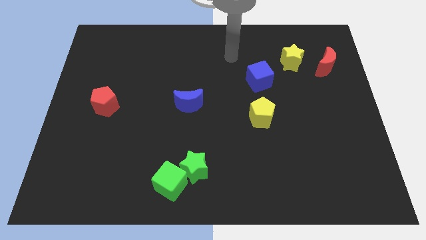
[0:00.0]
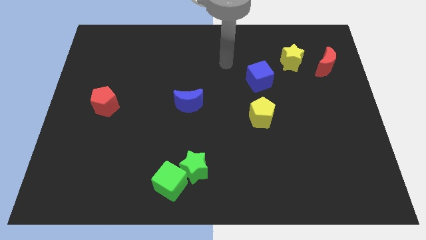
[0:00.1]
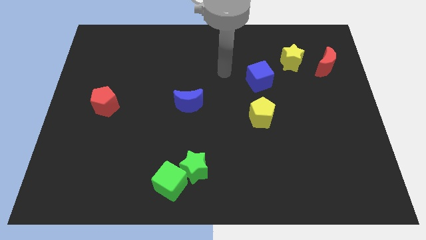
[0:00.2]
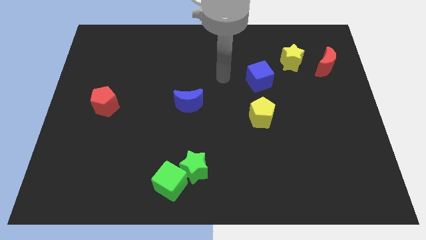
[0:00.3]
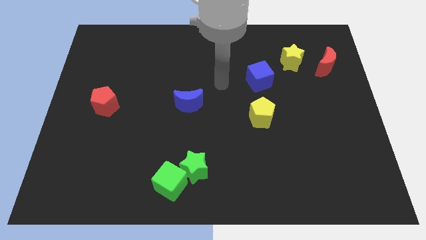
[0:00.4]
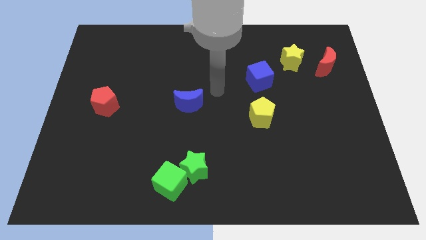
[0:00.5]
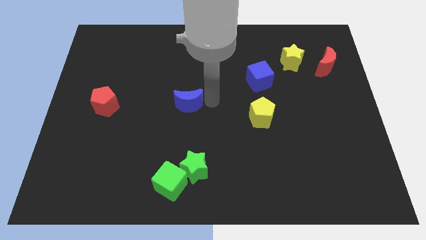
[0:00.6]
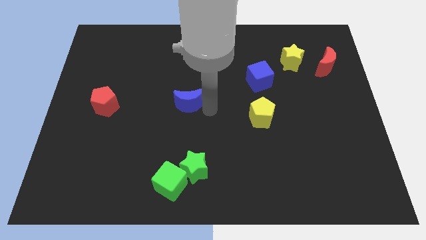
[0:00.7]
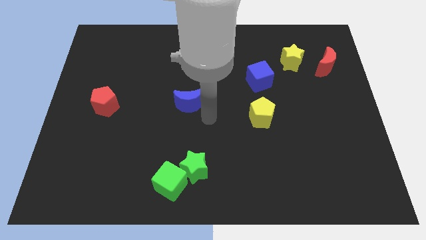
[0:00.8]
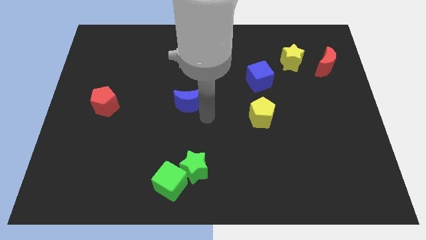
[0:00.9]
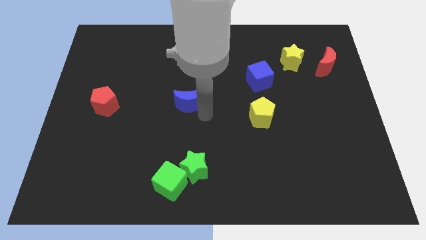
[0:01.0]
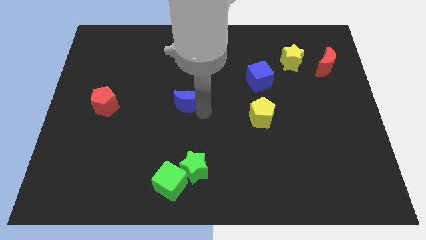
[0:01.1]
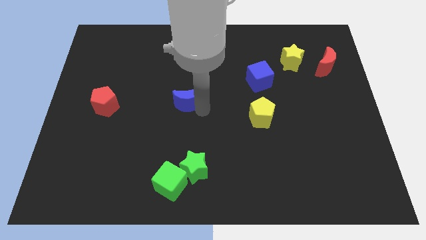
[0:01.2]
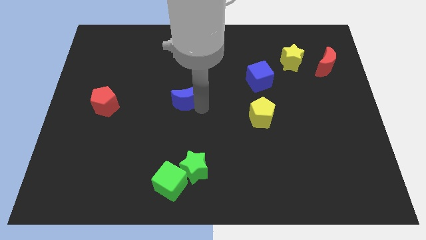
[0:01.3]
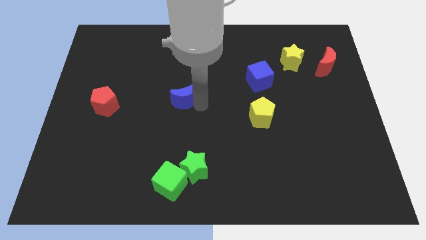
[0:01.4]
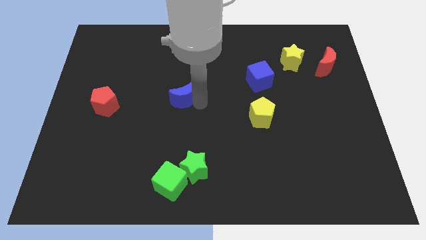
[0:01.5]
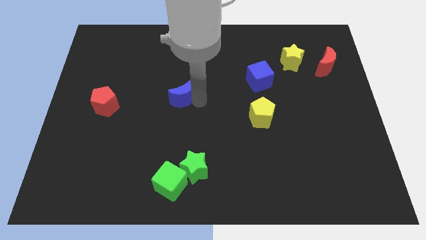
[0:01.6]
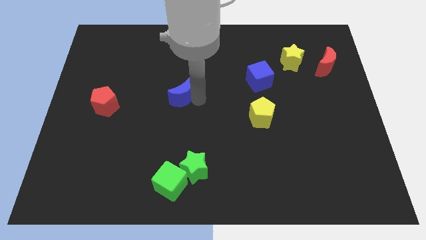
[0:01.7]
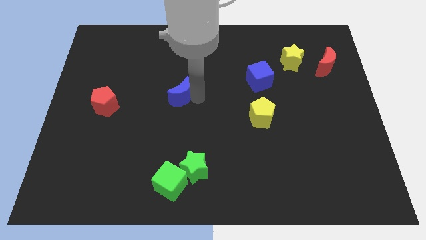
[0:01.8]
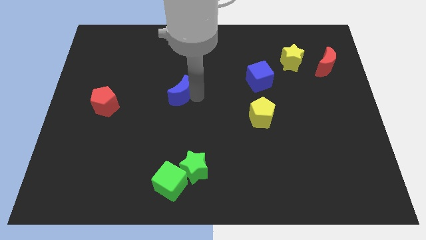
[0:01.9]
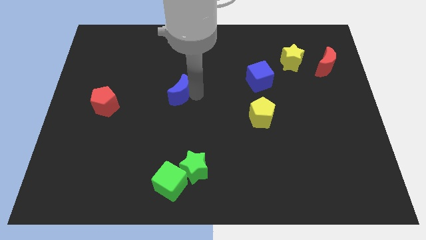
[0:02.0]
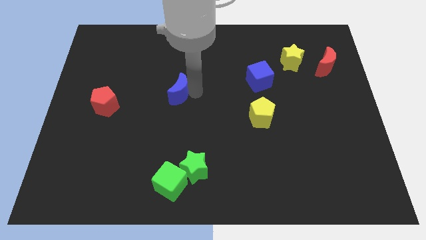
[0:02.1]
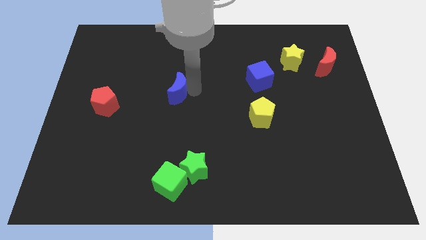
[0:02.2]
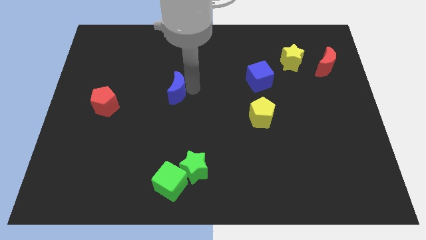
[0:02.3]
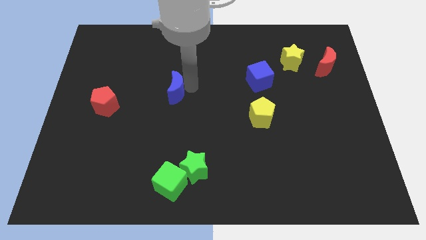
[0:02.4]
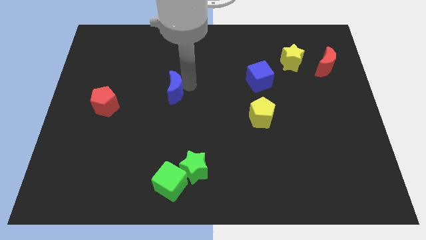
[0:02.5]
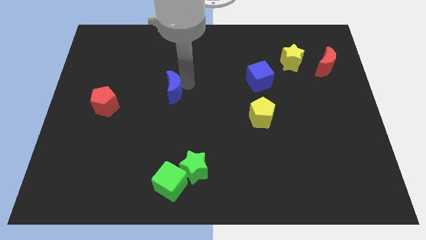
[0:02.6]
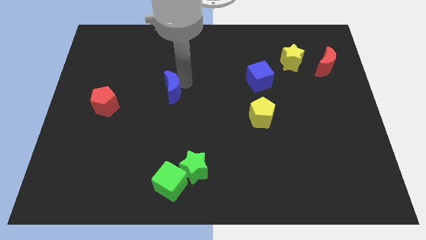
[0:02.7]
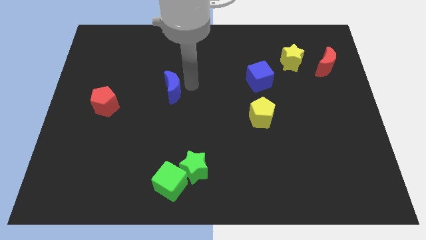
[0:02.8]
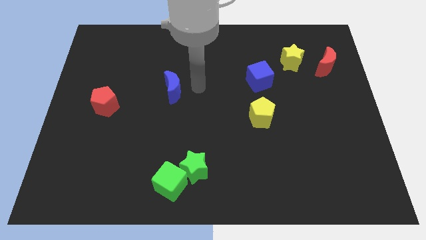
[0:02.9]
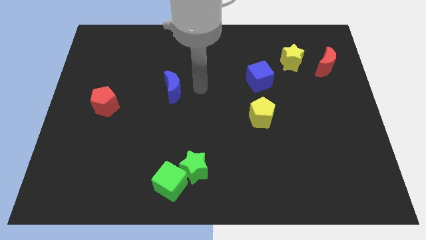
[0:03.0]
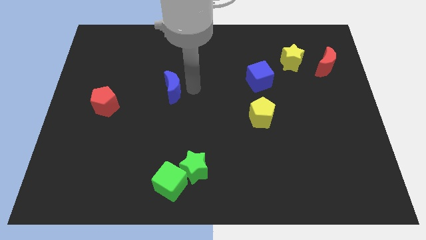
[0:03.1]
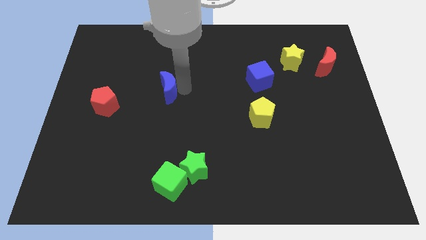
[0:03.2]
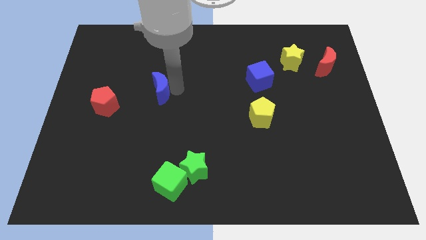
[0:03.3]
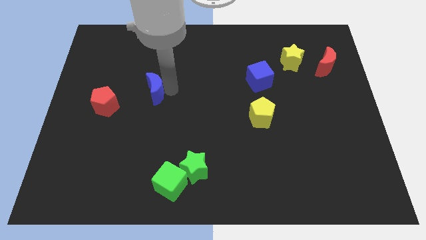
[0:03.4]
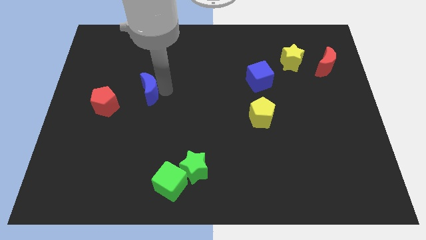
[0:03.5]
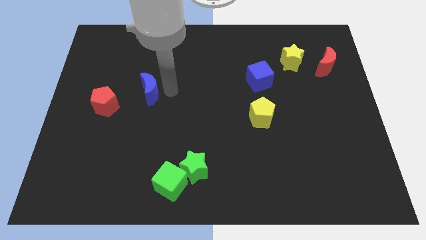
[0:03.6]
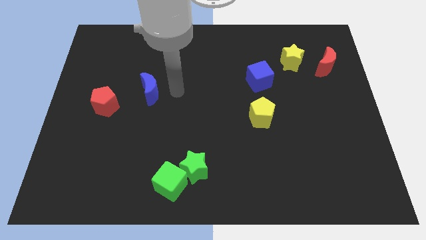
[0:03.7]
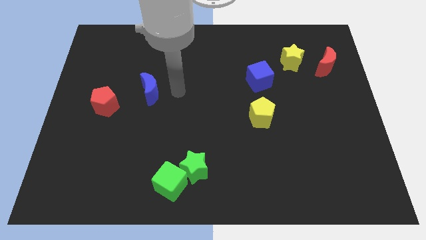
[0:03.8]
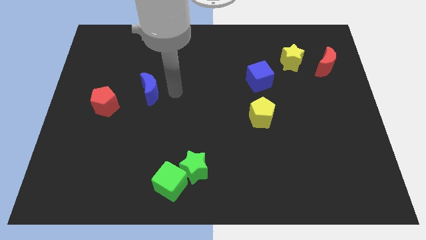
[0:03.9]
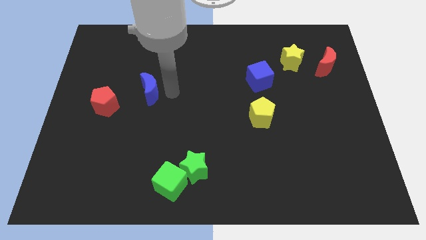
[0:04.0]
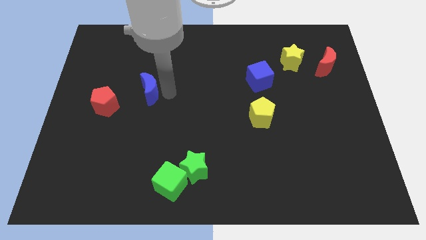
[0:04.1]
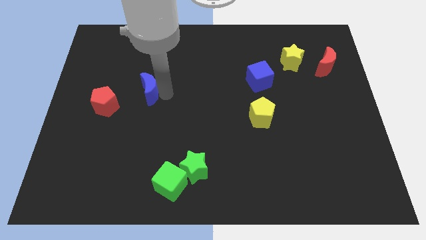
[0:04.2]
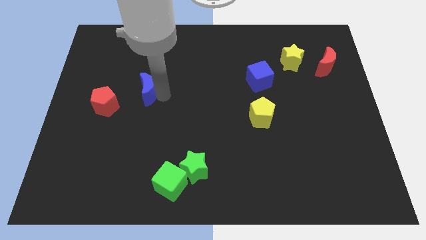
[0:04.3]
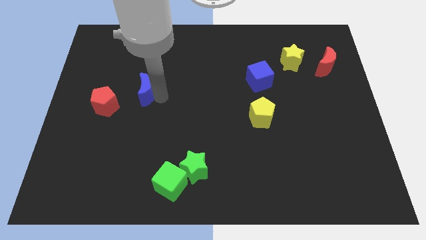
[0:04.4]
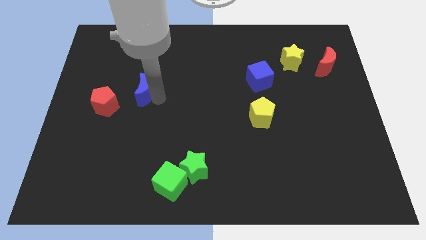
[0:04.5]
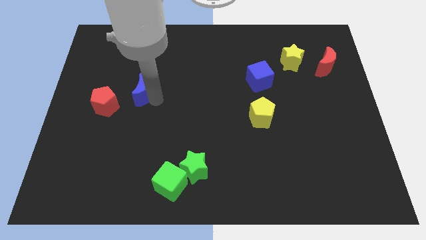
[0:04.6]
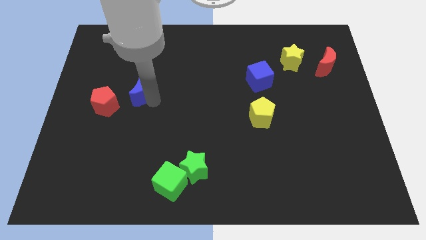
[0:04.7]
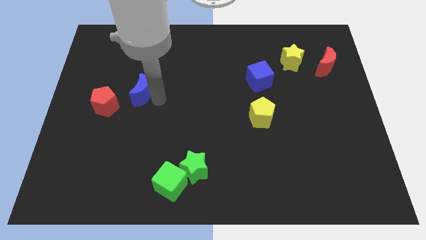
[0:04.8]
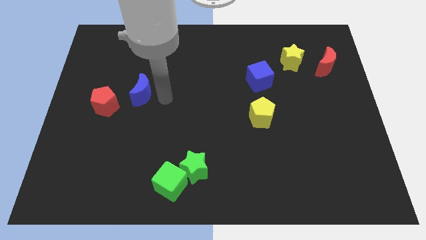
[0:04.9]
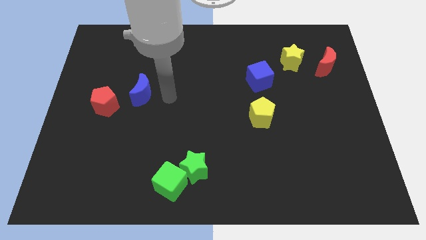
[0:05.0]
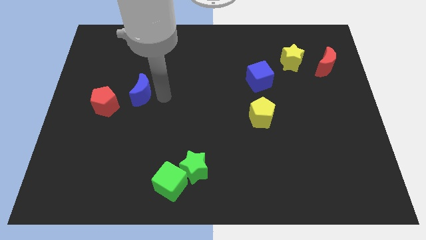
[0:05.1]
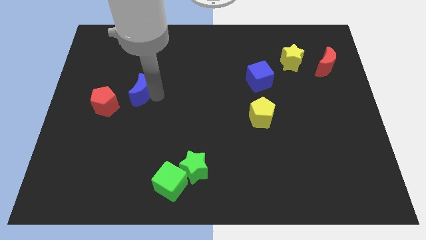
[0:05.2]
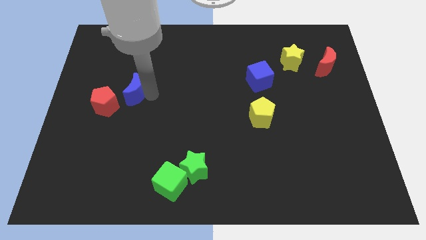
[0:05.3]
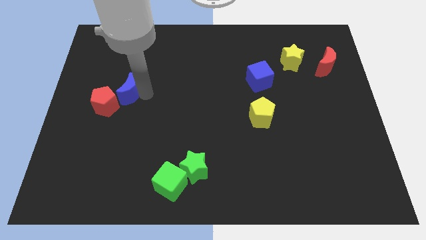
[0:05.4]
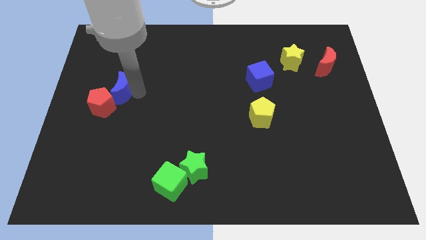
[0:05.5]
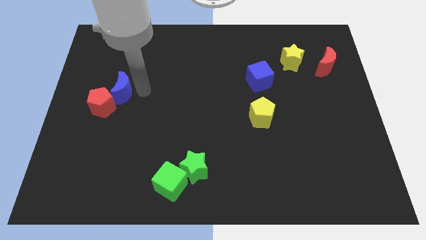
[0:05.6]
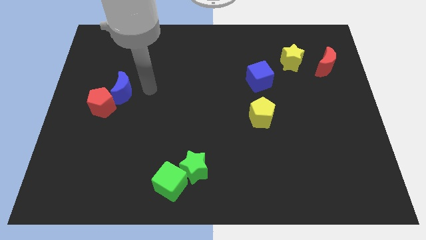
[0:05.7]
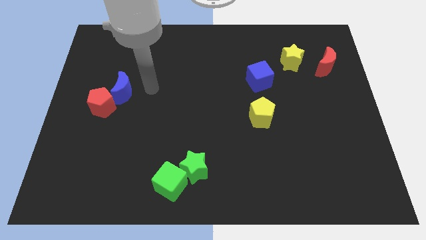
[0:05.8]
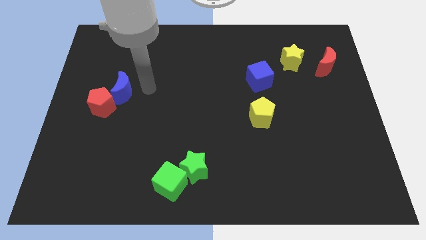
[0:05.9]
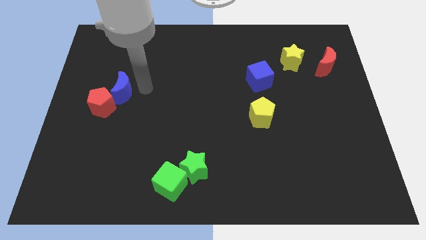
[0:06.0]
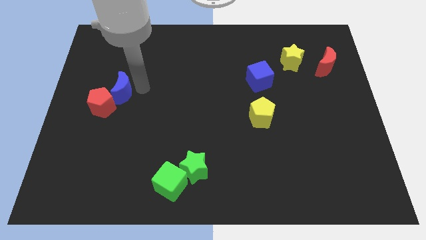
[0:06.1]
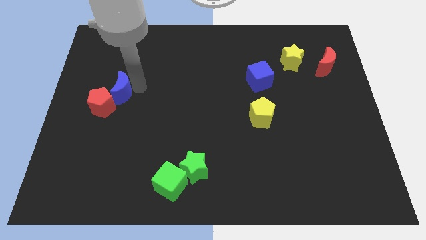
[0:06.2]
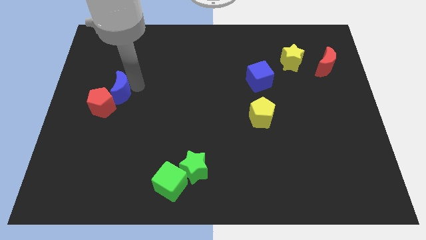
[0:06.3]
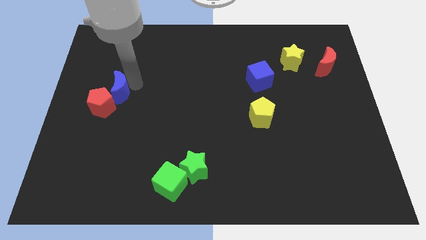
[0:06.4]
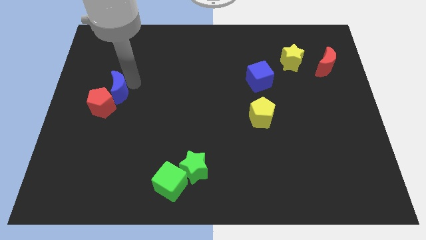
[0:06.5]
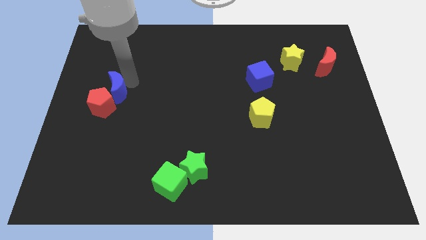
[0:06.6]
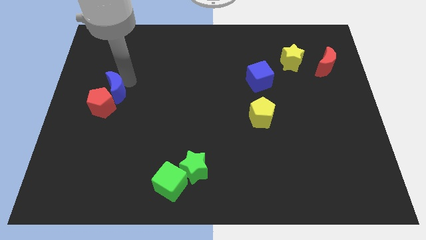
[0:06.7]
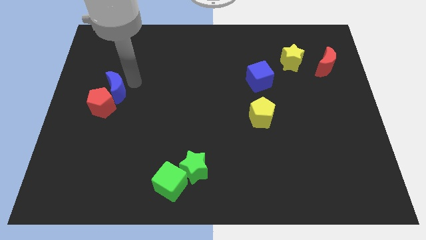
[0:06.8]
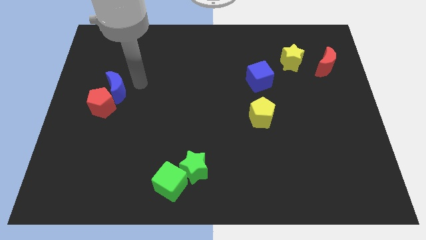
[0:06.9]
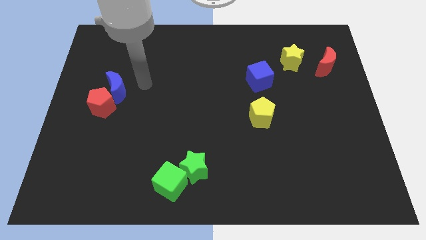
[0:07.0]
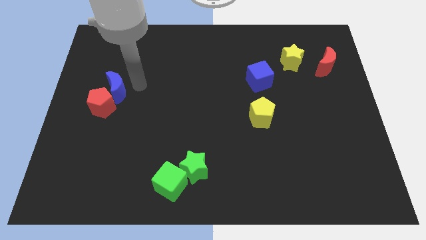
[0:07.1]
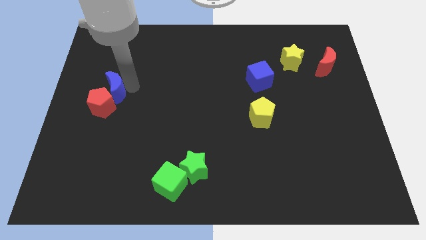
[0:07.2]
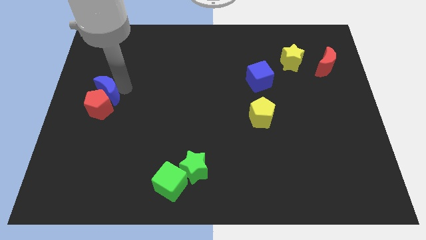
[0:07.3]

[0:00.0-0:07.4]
push the blue moon to the left side of the board
